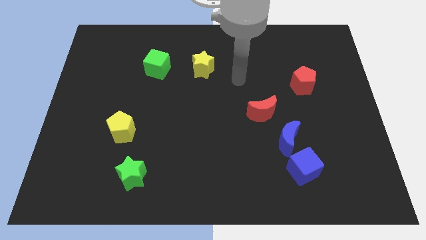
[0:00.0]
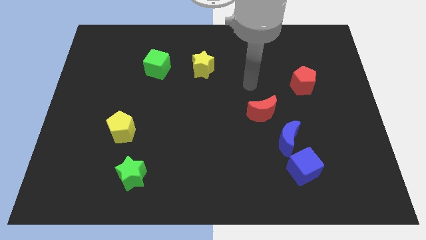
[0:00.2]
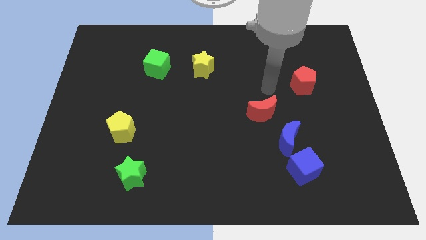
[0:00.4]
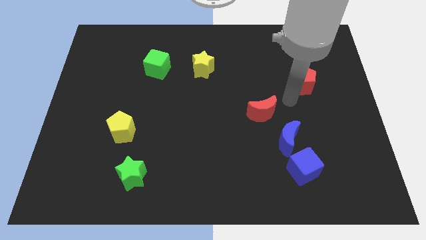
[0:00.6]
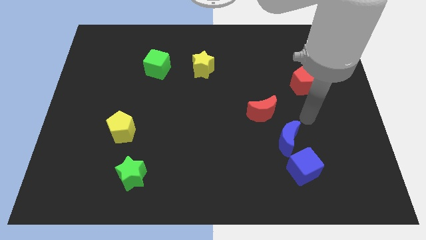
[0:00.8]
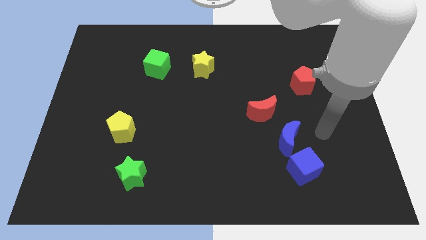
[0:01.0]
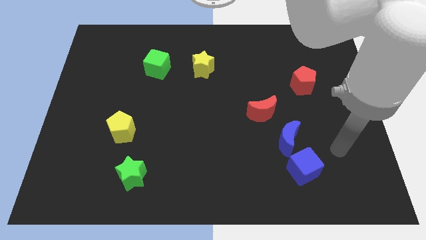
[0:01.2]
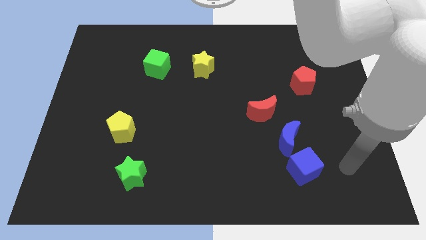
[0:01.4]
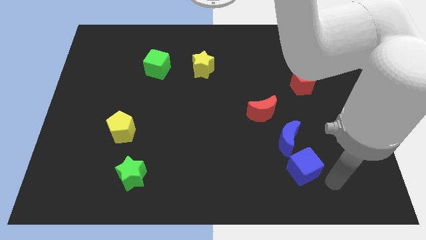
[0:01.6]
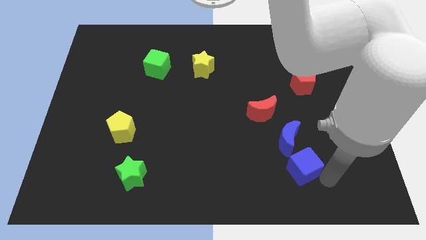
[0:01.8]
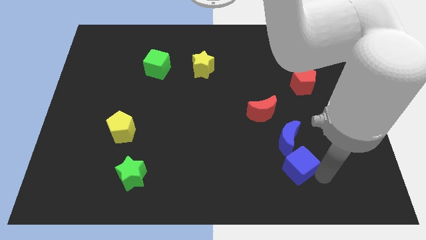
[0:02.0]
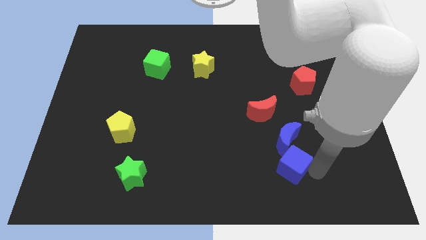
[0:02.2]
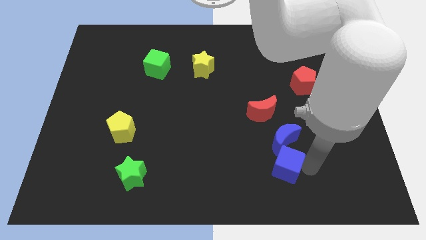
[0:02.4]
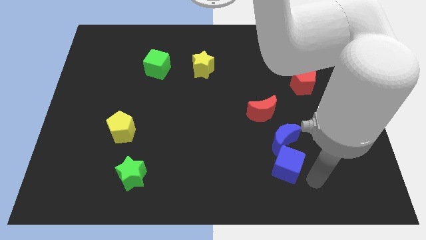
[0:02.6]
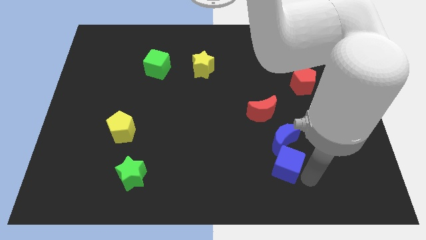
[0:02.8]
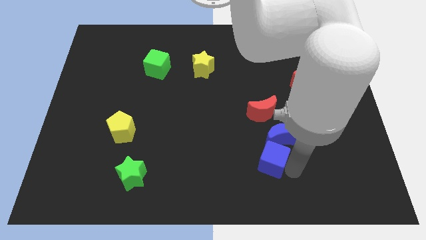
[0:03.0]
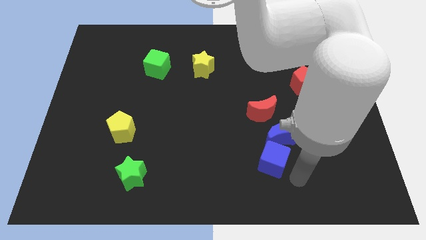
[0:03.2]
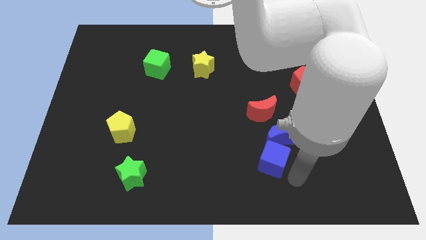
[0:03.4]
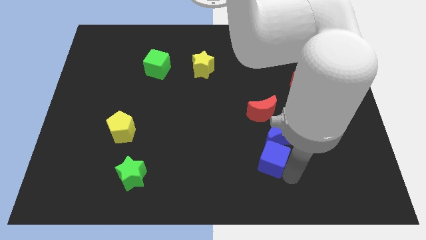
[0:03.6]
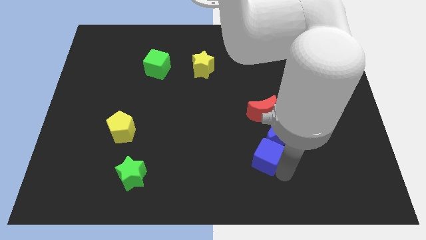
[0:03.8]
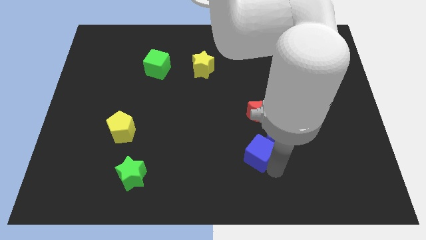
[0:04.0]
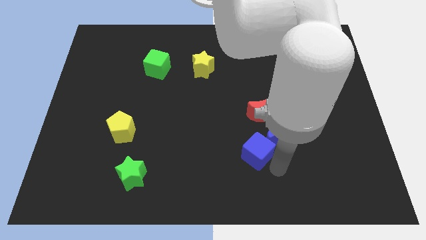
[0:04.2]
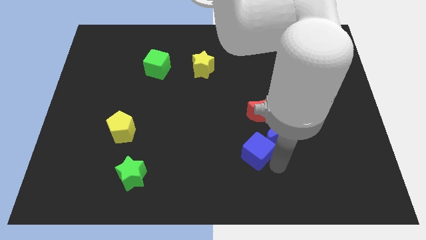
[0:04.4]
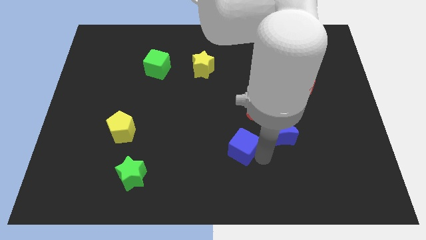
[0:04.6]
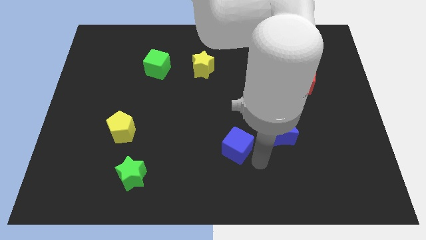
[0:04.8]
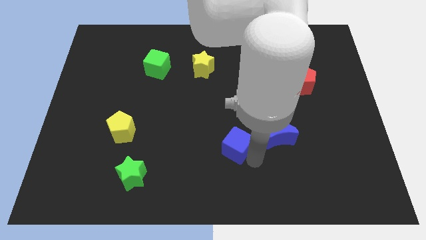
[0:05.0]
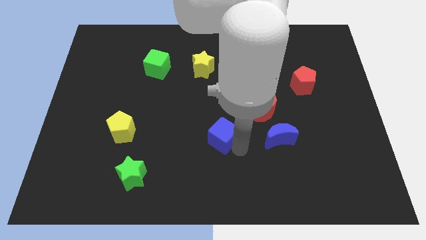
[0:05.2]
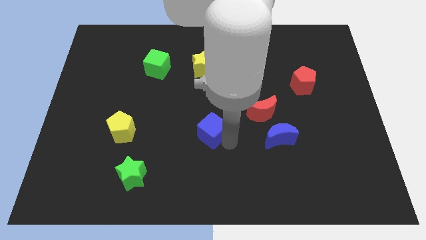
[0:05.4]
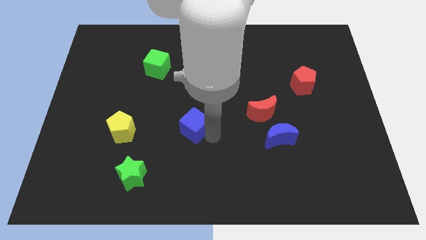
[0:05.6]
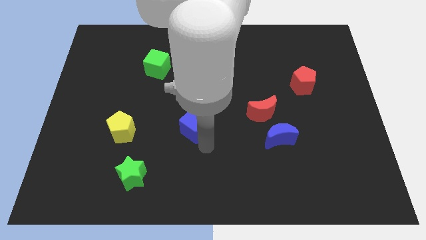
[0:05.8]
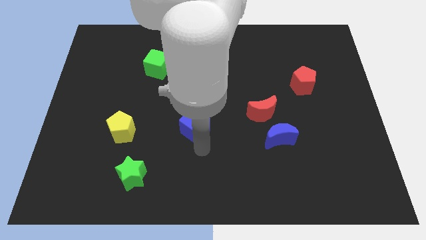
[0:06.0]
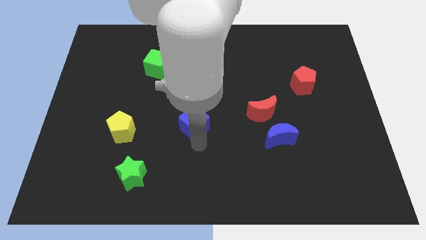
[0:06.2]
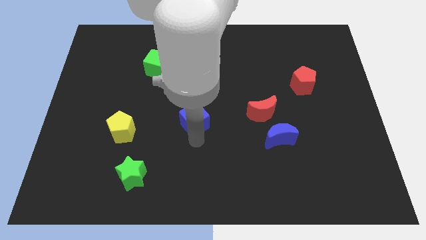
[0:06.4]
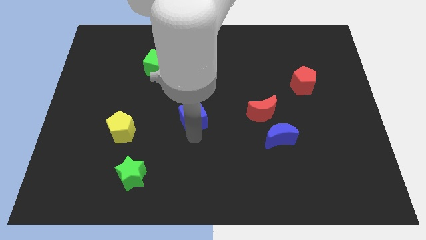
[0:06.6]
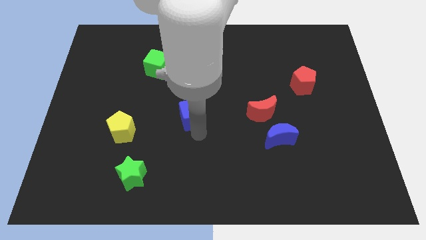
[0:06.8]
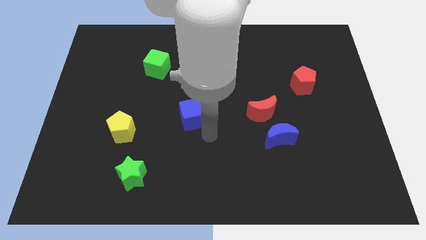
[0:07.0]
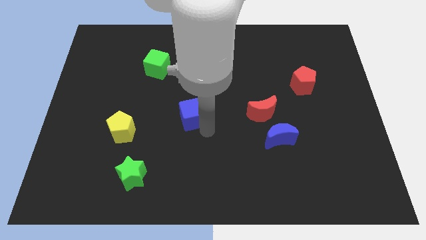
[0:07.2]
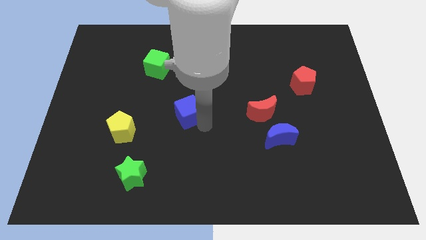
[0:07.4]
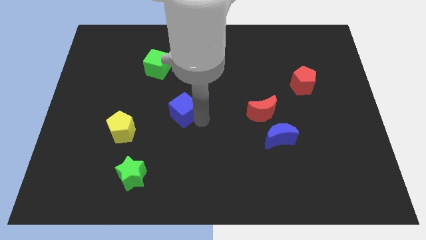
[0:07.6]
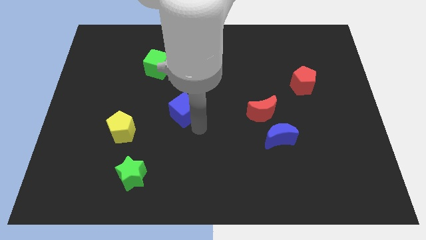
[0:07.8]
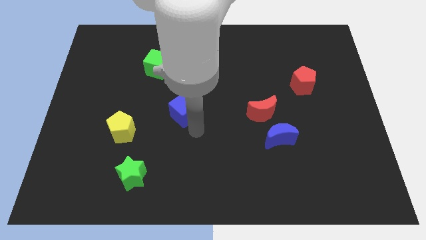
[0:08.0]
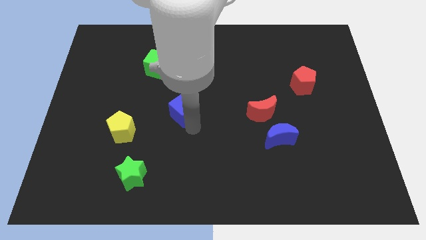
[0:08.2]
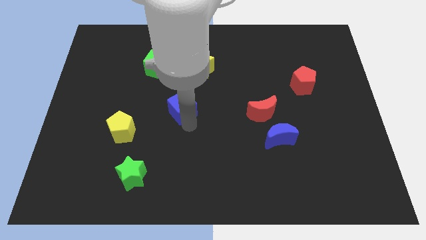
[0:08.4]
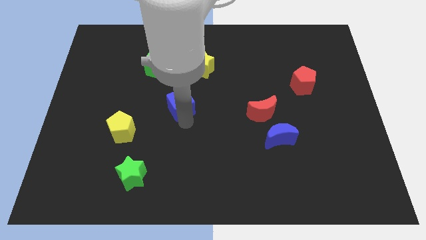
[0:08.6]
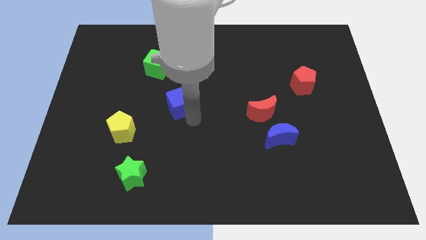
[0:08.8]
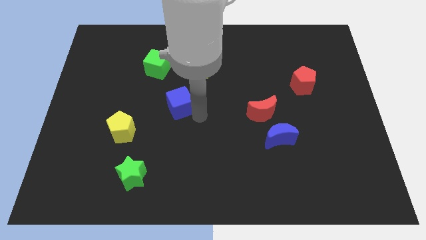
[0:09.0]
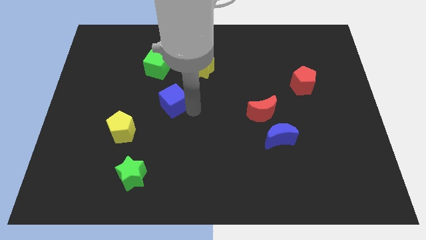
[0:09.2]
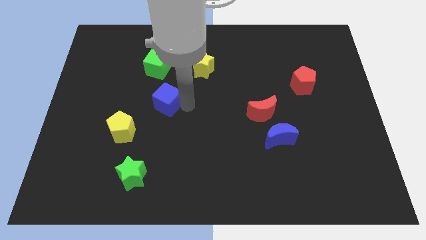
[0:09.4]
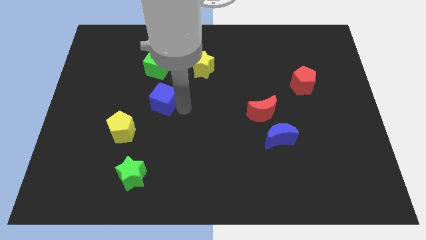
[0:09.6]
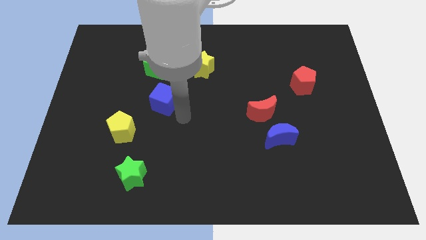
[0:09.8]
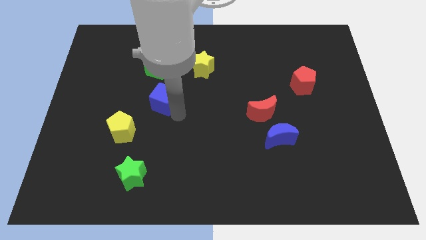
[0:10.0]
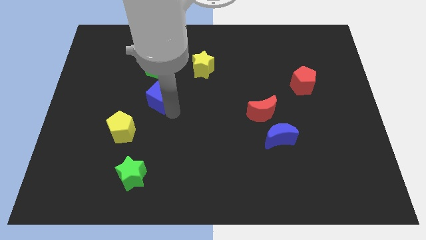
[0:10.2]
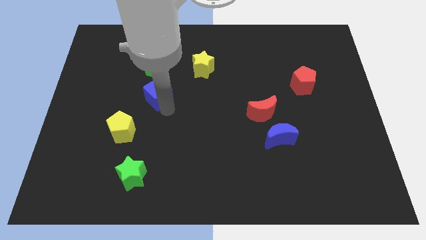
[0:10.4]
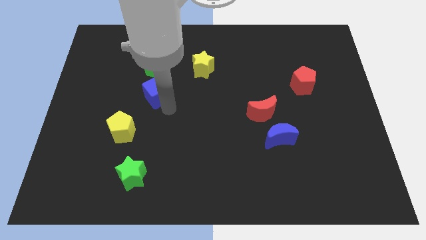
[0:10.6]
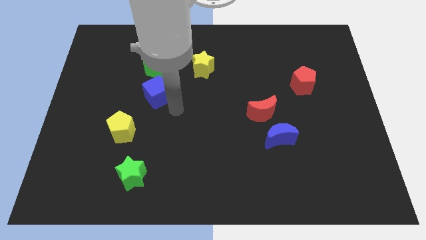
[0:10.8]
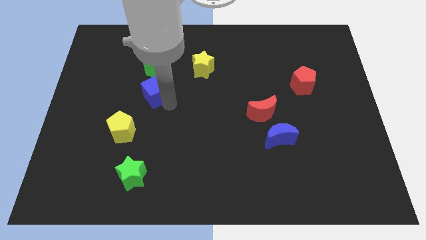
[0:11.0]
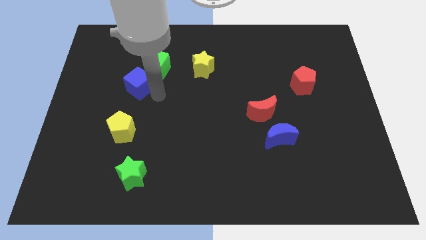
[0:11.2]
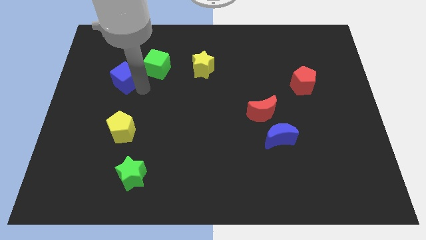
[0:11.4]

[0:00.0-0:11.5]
push the blue cube to the left of the green cube

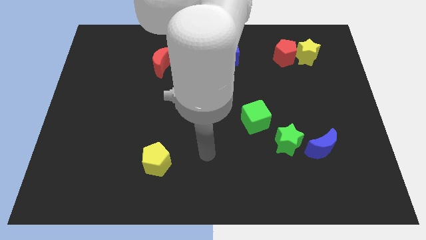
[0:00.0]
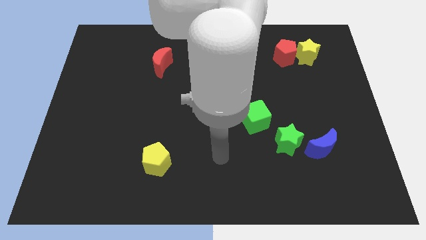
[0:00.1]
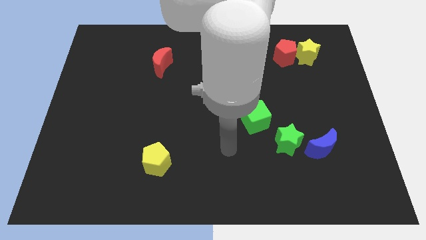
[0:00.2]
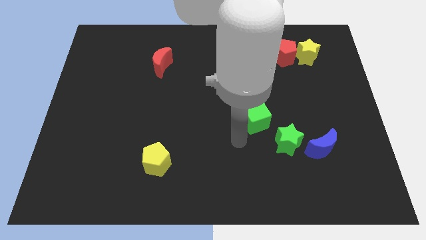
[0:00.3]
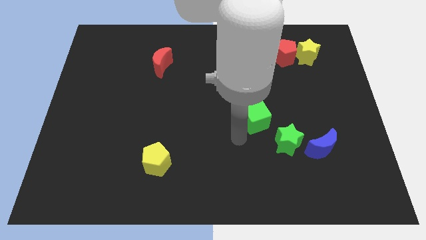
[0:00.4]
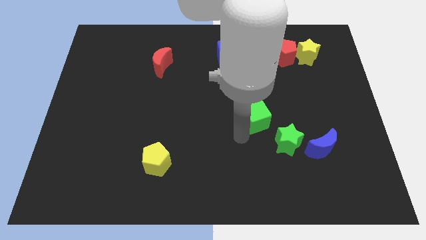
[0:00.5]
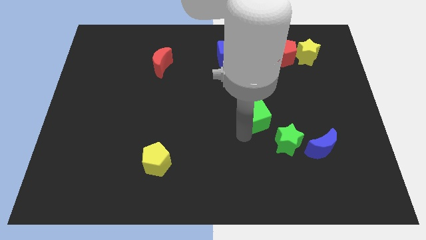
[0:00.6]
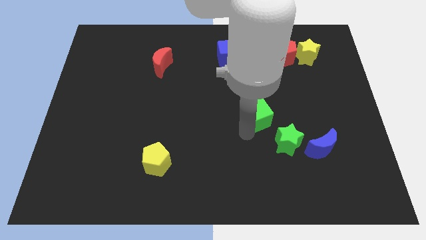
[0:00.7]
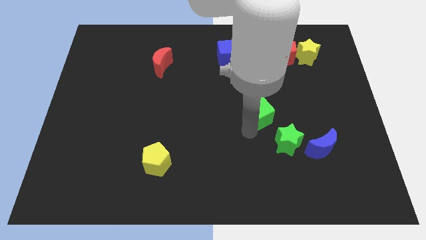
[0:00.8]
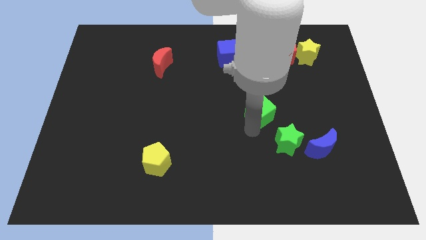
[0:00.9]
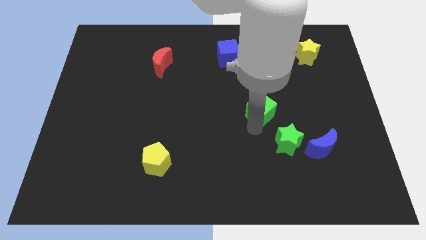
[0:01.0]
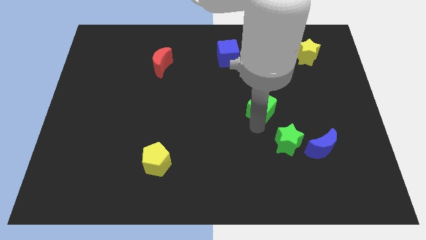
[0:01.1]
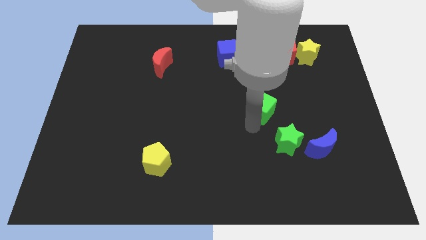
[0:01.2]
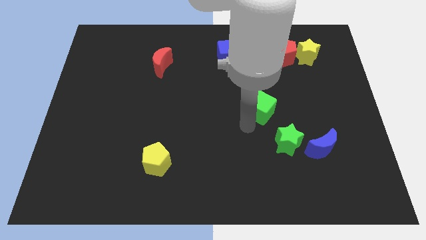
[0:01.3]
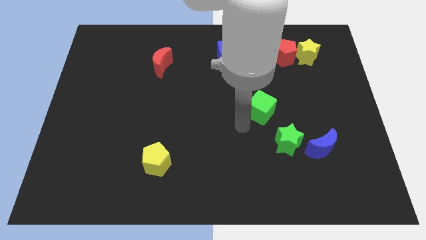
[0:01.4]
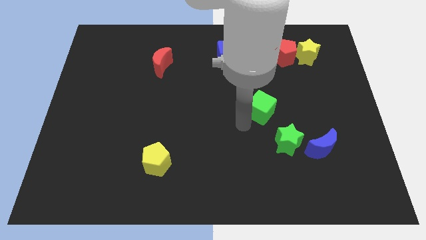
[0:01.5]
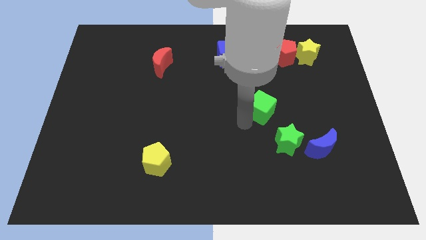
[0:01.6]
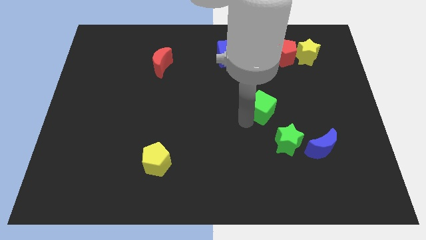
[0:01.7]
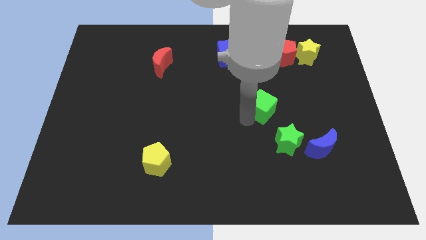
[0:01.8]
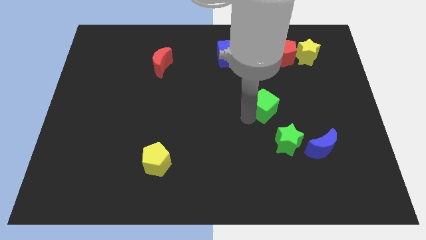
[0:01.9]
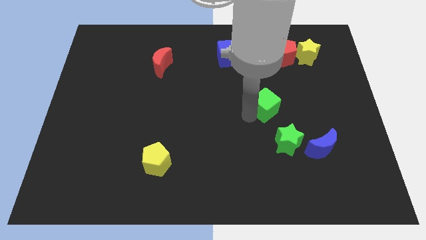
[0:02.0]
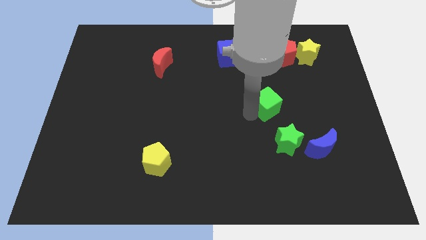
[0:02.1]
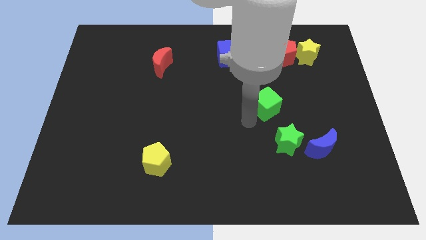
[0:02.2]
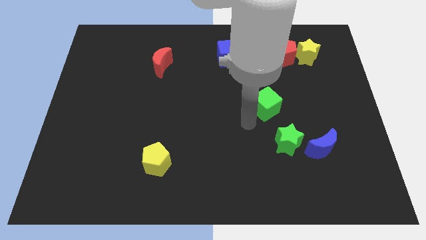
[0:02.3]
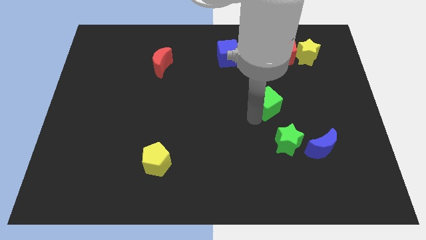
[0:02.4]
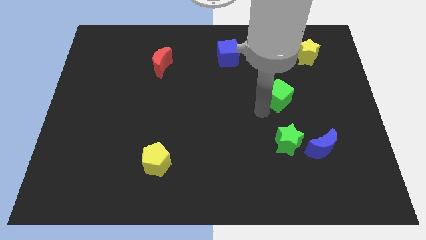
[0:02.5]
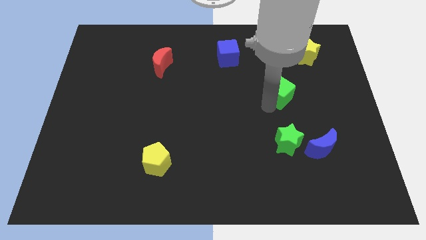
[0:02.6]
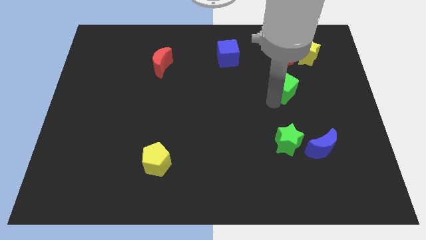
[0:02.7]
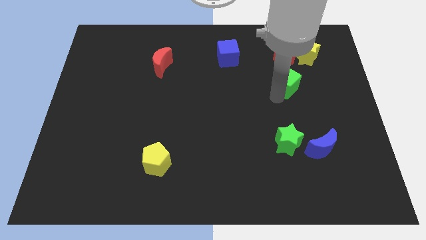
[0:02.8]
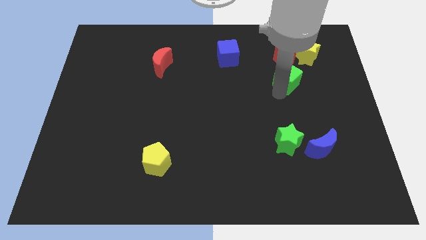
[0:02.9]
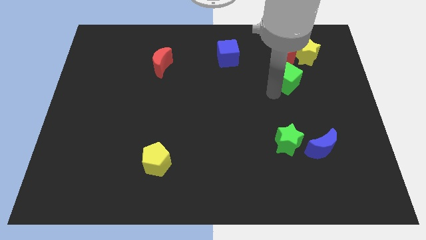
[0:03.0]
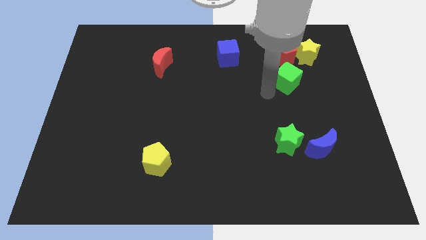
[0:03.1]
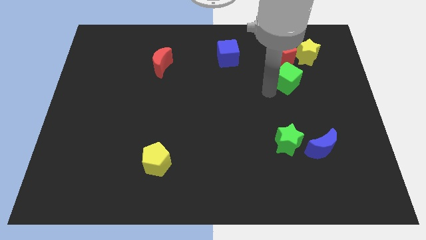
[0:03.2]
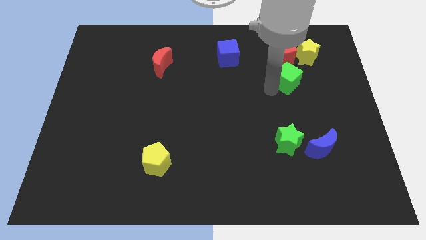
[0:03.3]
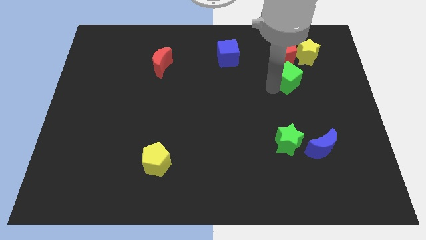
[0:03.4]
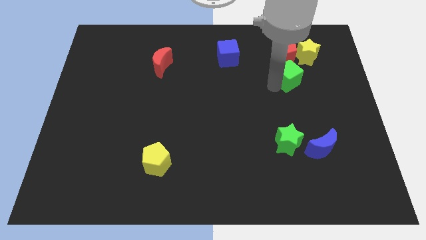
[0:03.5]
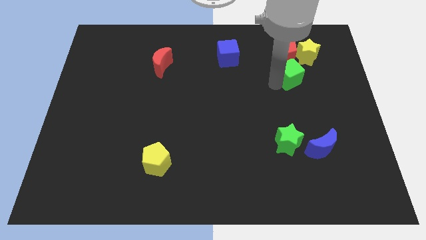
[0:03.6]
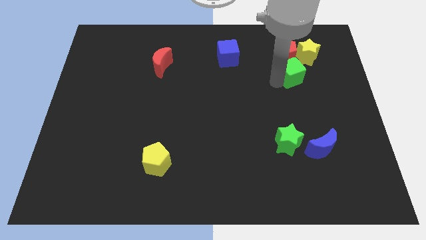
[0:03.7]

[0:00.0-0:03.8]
move the green cube to the bottom right side of the red pentagon
